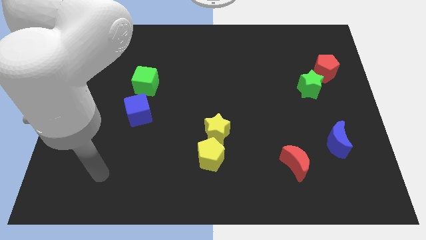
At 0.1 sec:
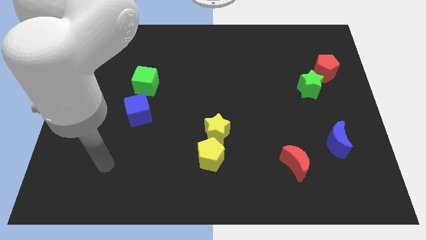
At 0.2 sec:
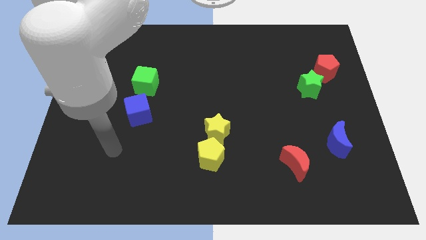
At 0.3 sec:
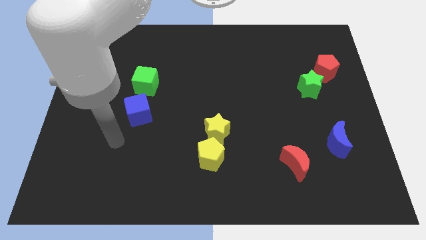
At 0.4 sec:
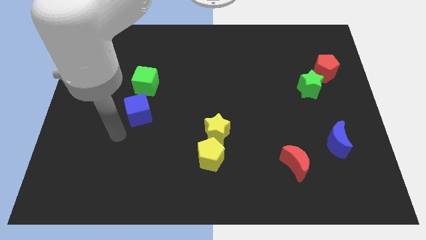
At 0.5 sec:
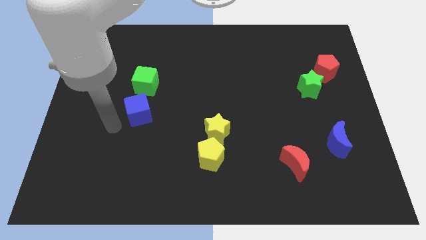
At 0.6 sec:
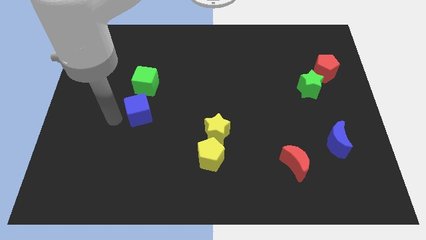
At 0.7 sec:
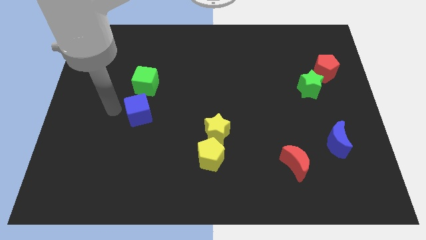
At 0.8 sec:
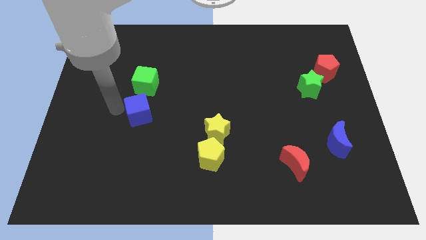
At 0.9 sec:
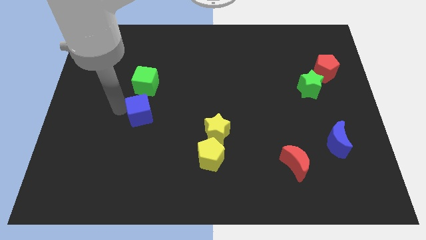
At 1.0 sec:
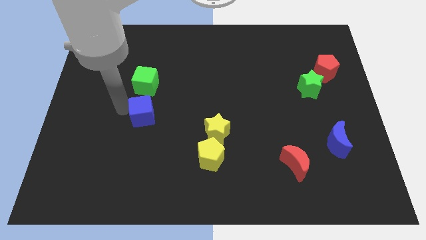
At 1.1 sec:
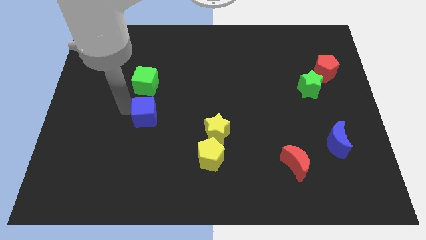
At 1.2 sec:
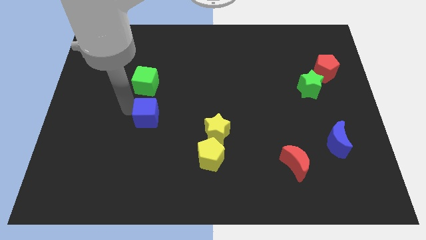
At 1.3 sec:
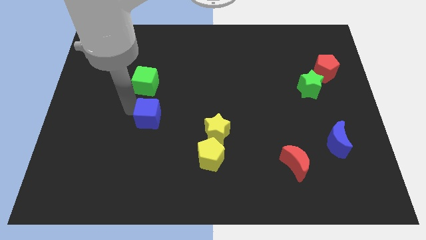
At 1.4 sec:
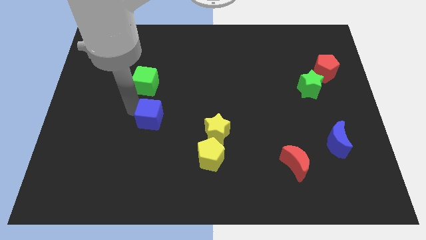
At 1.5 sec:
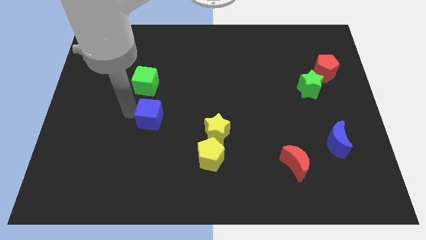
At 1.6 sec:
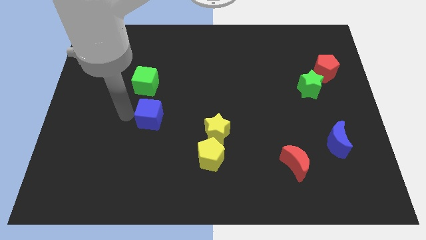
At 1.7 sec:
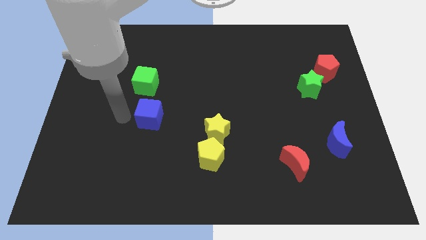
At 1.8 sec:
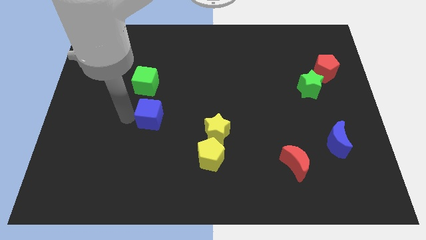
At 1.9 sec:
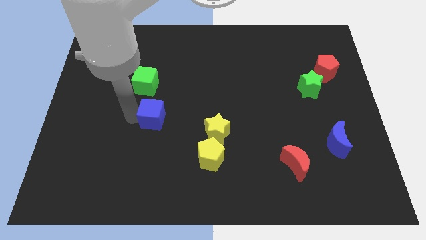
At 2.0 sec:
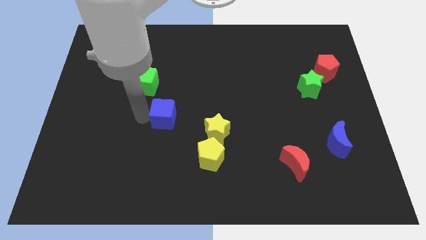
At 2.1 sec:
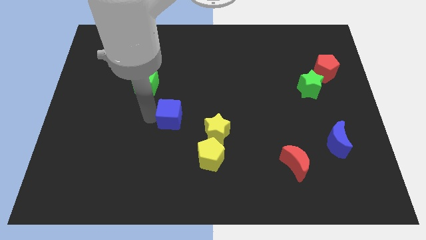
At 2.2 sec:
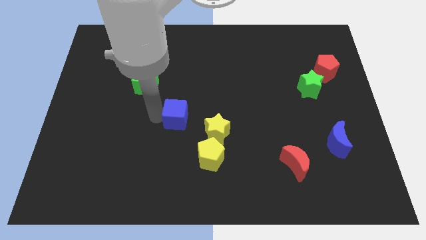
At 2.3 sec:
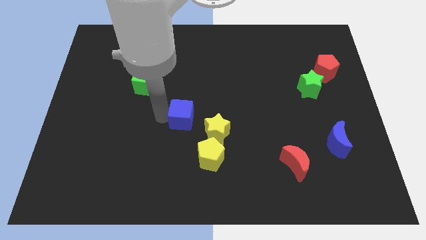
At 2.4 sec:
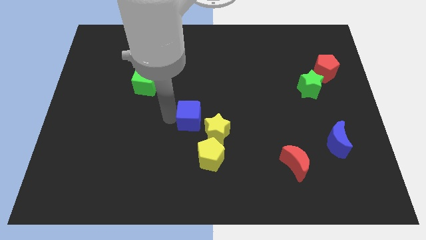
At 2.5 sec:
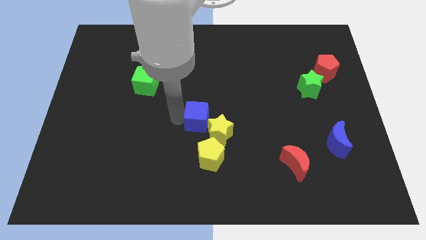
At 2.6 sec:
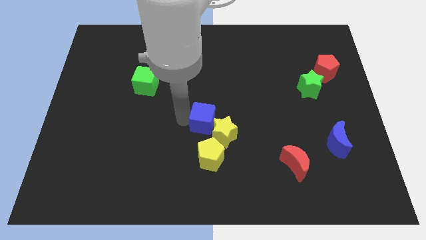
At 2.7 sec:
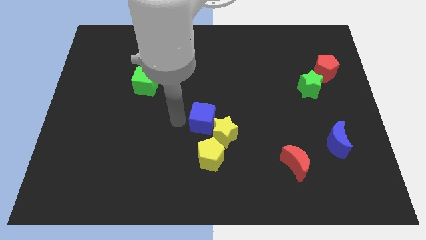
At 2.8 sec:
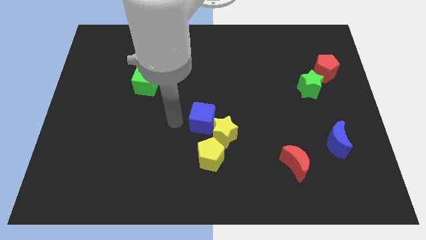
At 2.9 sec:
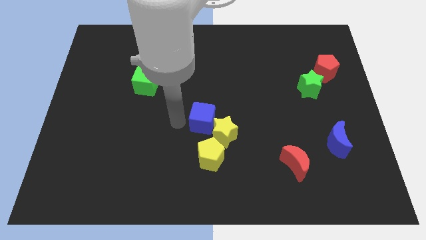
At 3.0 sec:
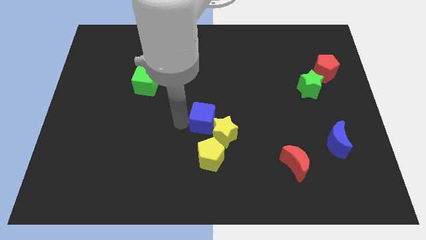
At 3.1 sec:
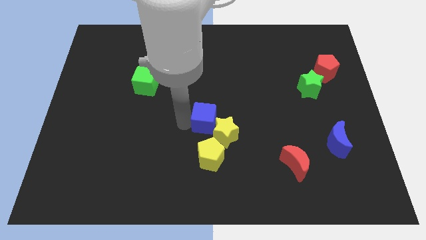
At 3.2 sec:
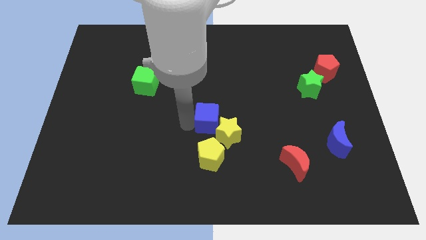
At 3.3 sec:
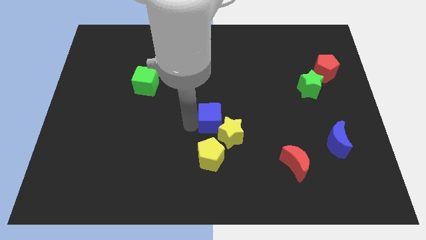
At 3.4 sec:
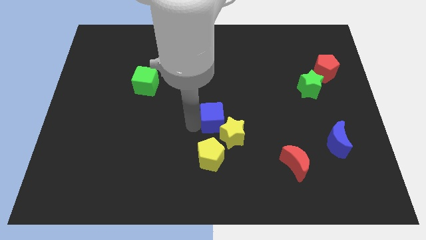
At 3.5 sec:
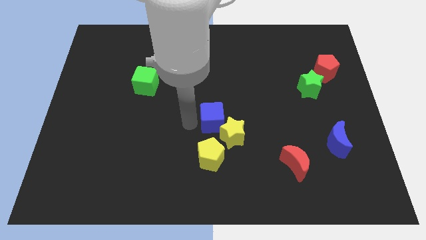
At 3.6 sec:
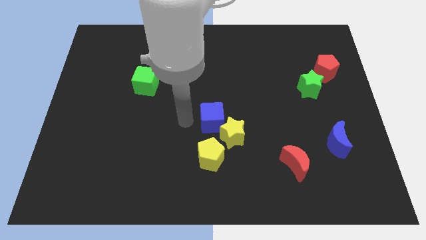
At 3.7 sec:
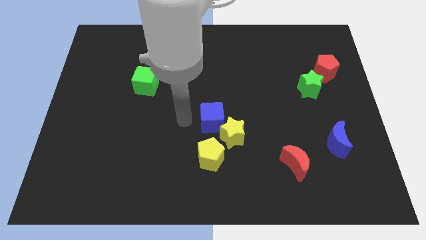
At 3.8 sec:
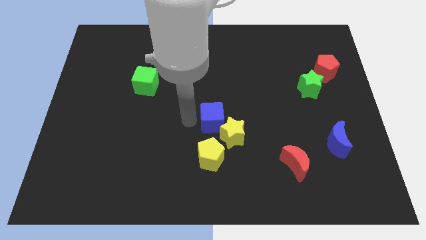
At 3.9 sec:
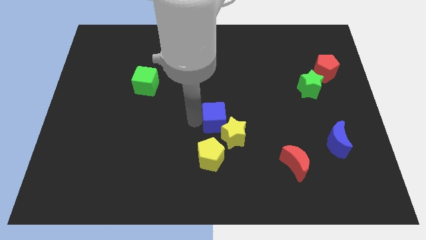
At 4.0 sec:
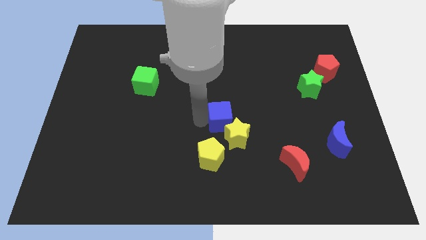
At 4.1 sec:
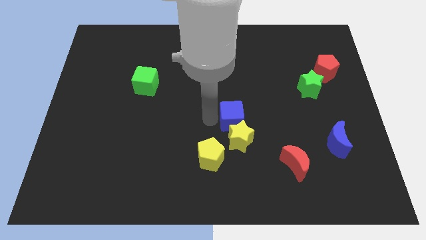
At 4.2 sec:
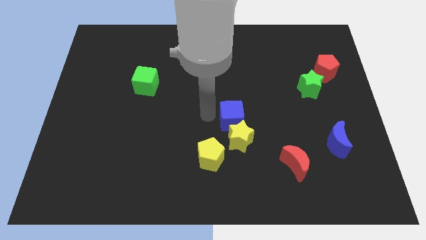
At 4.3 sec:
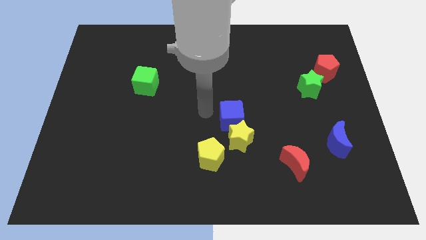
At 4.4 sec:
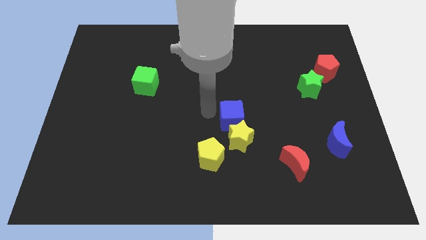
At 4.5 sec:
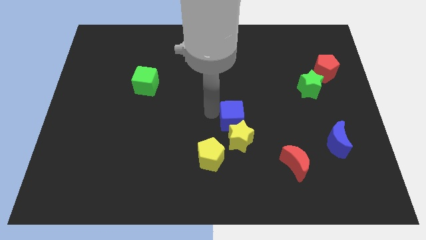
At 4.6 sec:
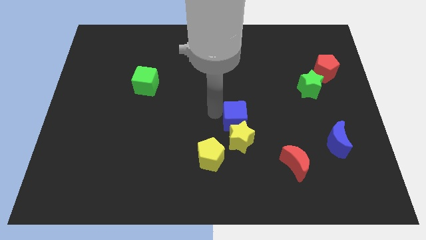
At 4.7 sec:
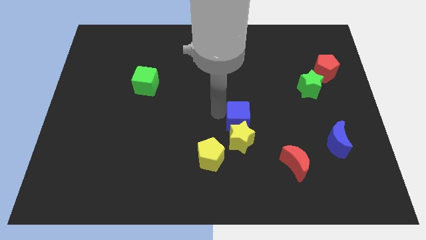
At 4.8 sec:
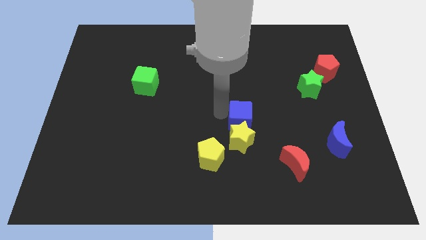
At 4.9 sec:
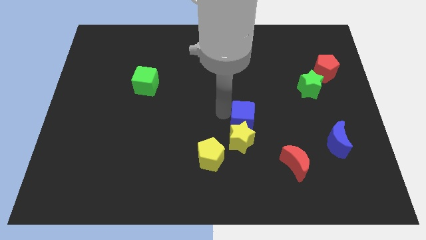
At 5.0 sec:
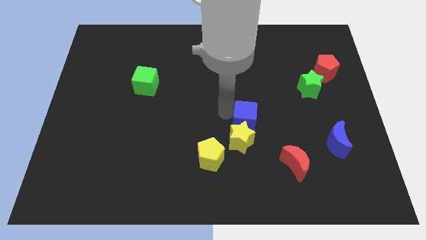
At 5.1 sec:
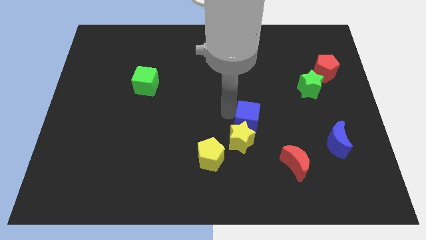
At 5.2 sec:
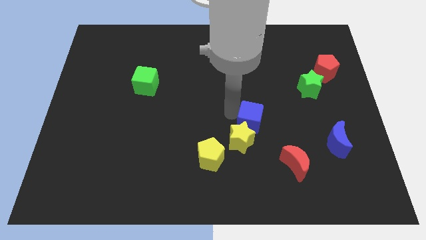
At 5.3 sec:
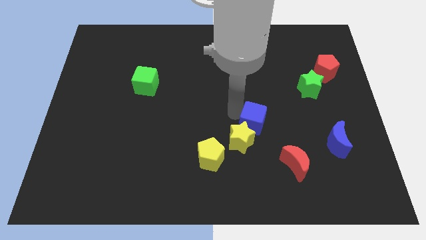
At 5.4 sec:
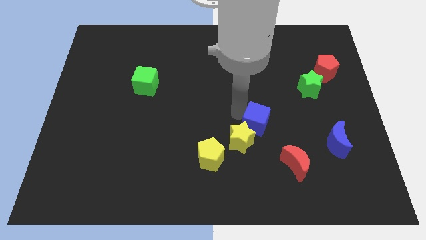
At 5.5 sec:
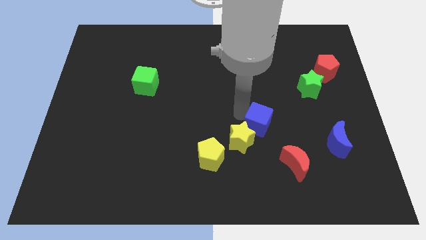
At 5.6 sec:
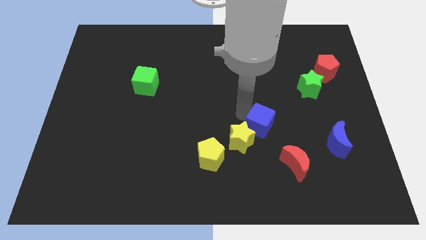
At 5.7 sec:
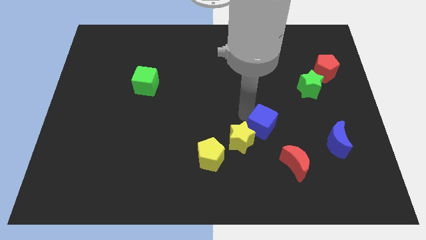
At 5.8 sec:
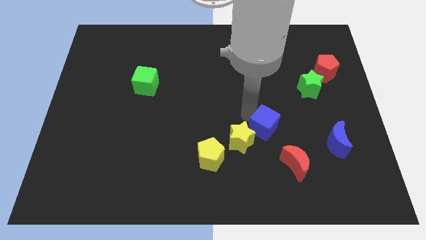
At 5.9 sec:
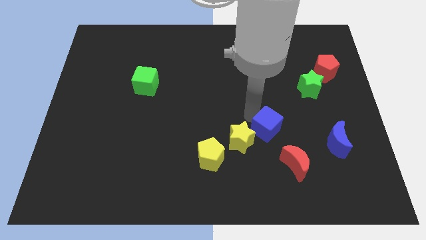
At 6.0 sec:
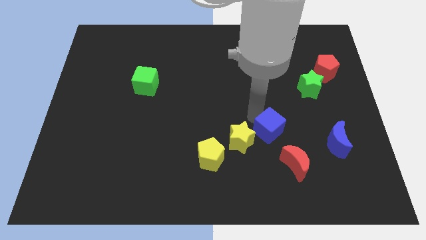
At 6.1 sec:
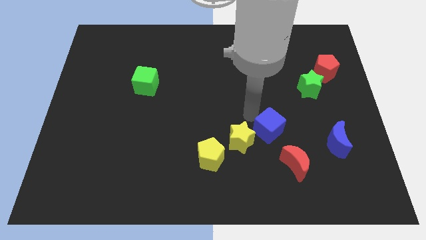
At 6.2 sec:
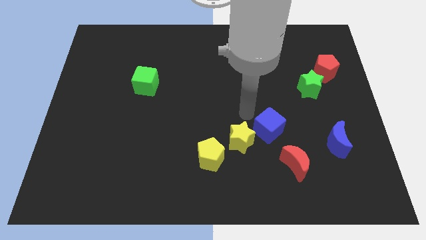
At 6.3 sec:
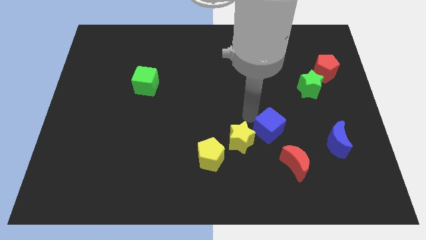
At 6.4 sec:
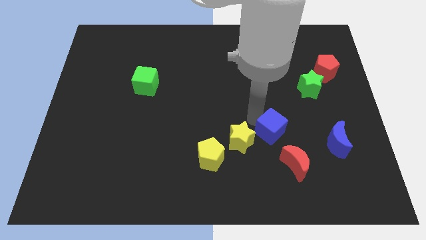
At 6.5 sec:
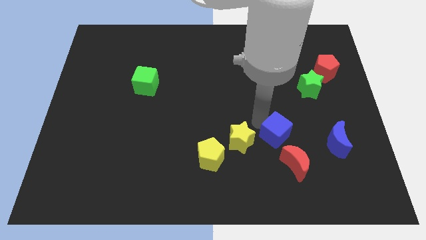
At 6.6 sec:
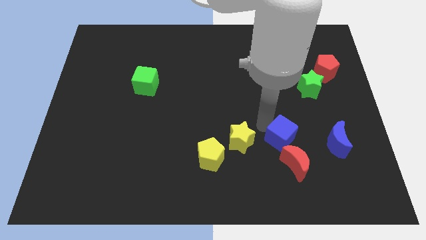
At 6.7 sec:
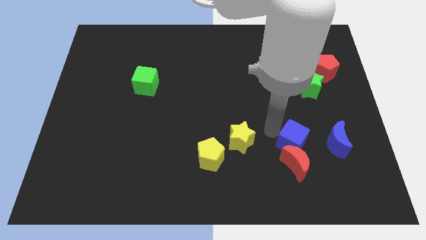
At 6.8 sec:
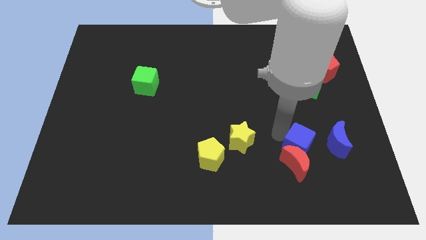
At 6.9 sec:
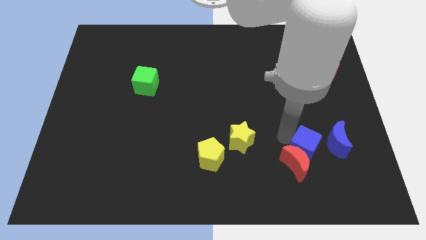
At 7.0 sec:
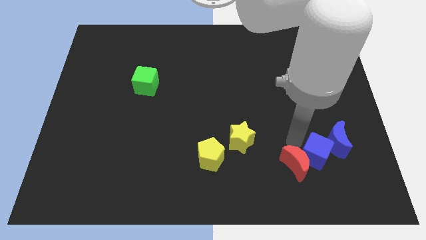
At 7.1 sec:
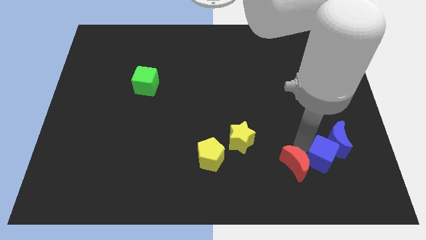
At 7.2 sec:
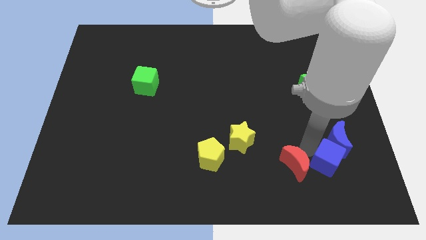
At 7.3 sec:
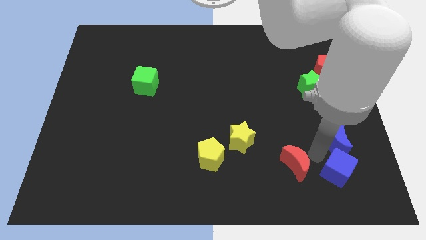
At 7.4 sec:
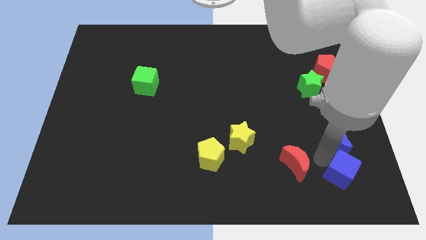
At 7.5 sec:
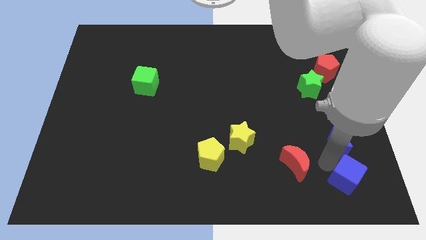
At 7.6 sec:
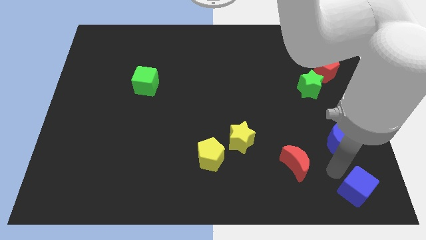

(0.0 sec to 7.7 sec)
push the blue cube to the lower right corner
